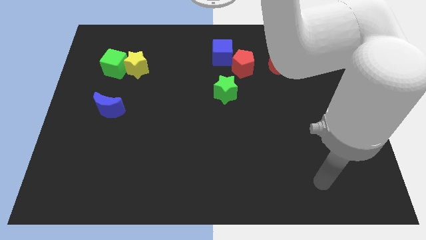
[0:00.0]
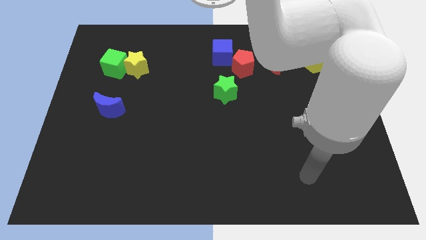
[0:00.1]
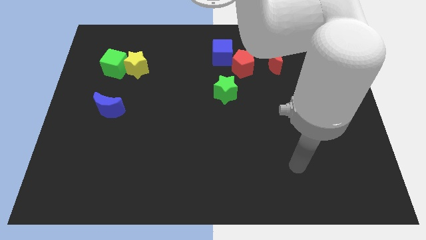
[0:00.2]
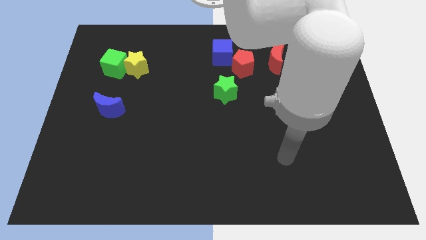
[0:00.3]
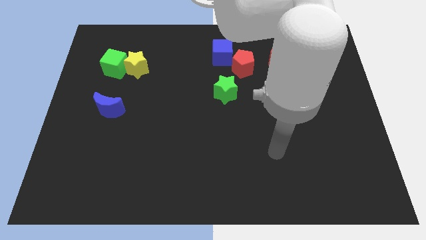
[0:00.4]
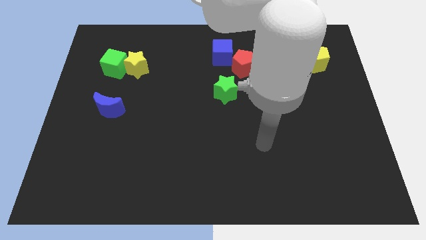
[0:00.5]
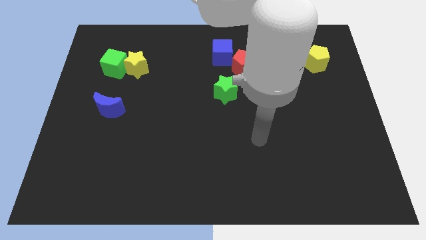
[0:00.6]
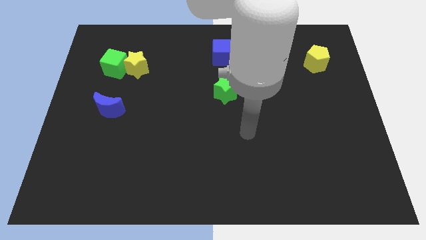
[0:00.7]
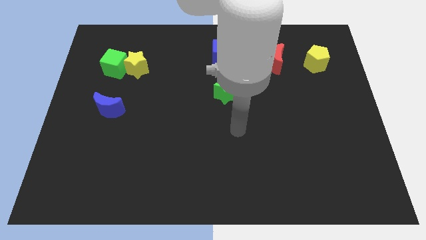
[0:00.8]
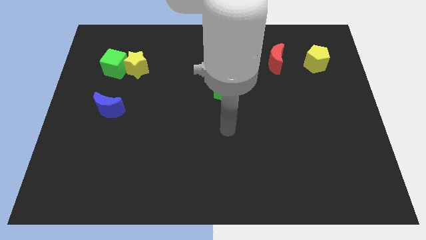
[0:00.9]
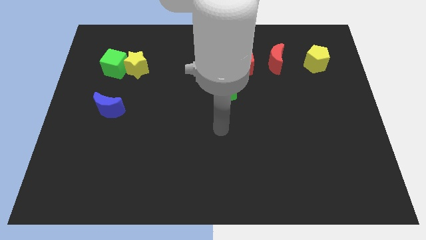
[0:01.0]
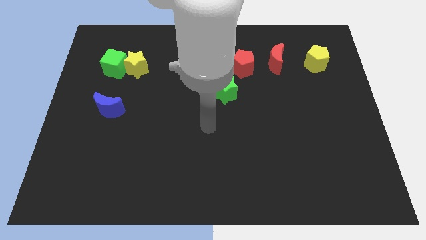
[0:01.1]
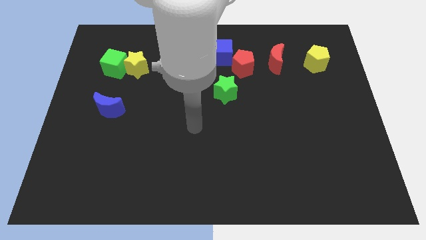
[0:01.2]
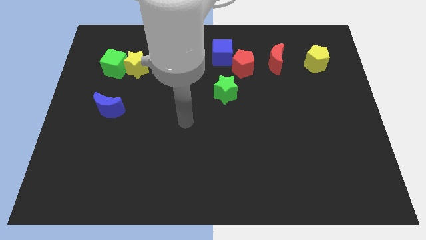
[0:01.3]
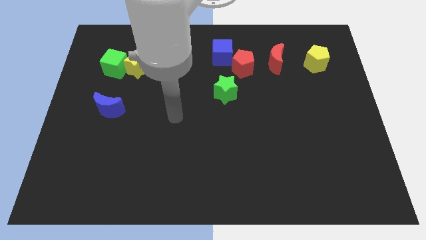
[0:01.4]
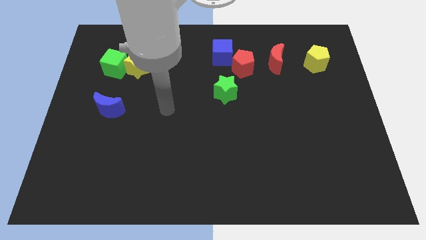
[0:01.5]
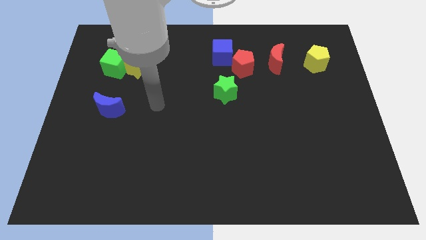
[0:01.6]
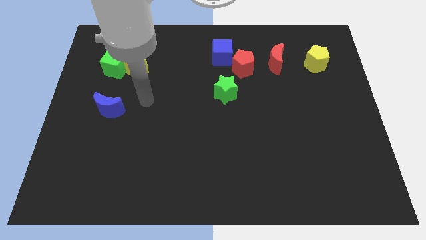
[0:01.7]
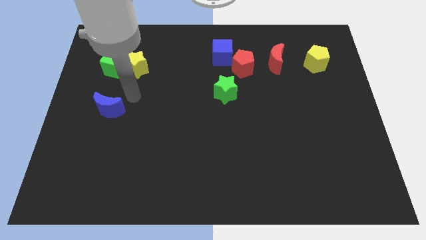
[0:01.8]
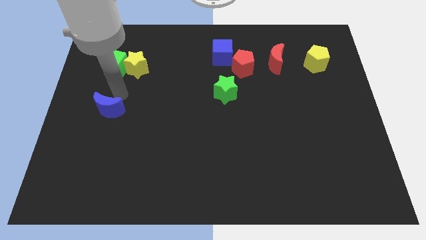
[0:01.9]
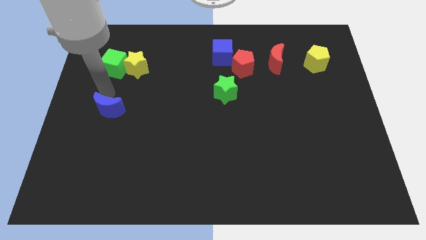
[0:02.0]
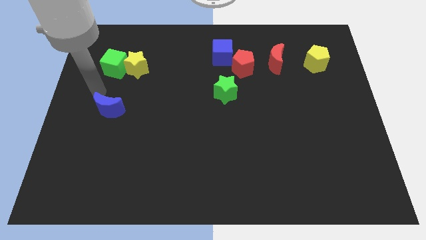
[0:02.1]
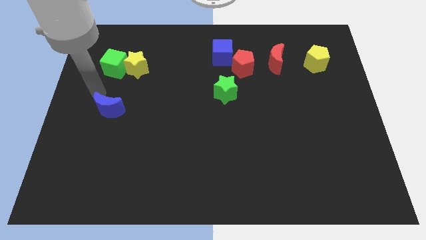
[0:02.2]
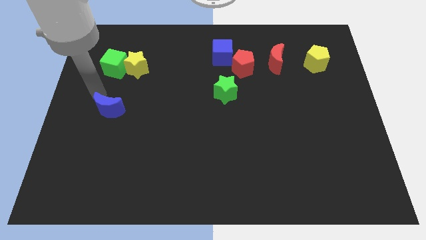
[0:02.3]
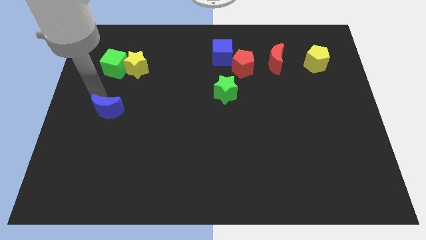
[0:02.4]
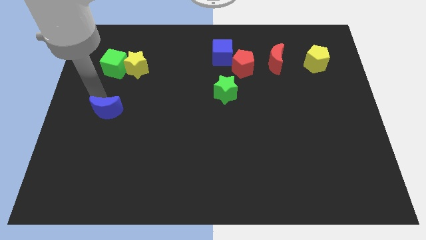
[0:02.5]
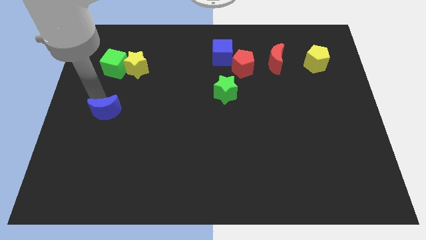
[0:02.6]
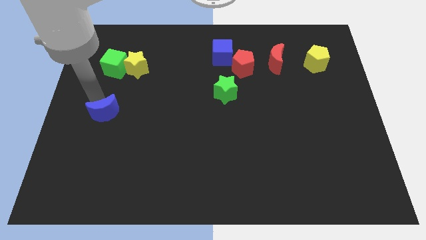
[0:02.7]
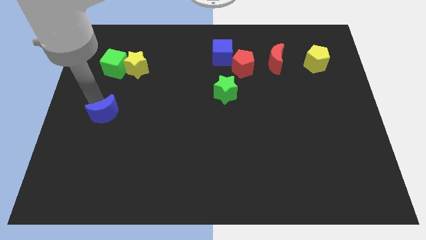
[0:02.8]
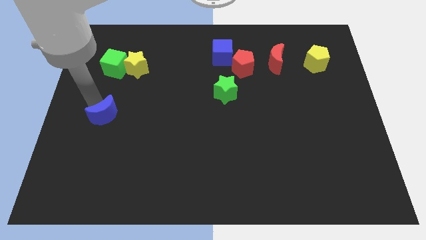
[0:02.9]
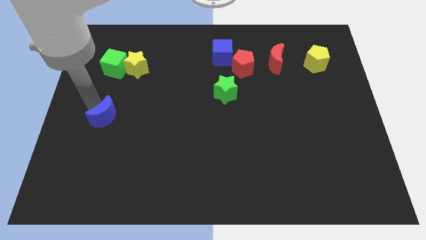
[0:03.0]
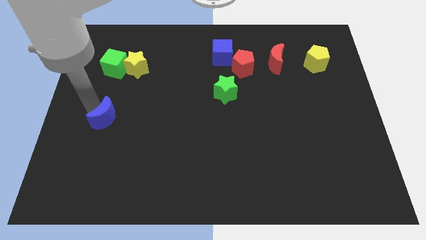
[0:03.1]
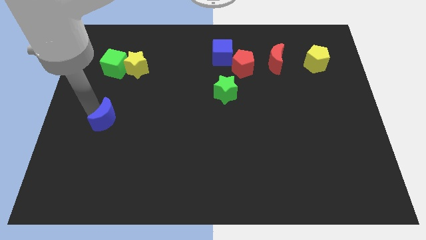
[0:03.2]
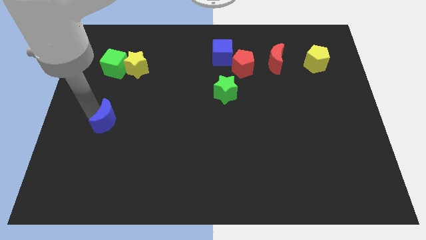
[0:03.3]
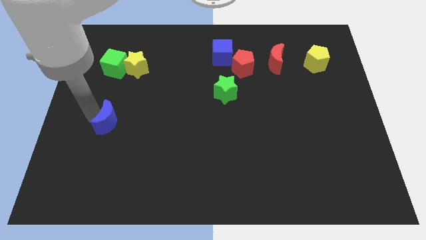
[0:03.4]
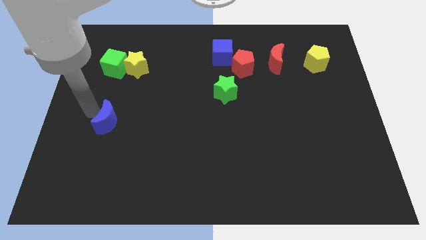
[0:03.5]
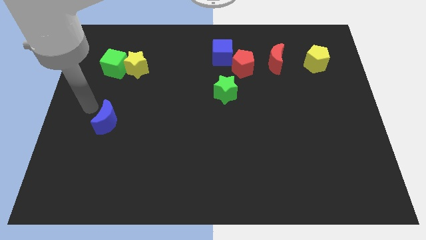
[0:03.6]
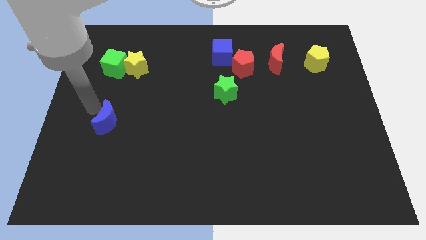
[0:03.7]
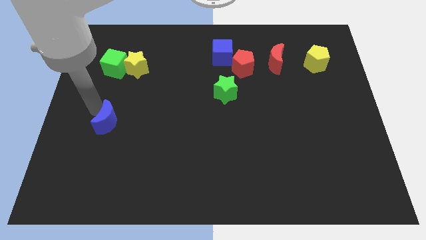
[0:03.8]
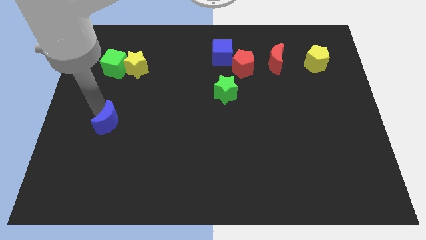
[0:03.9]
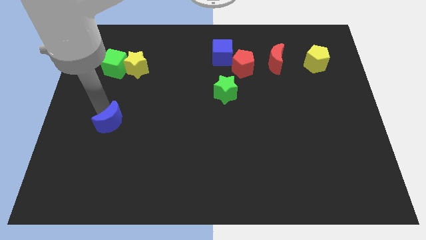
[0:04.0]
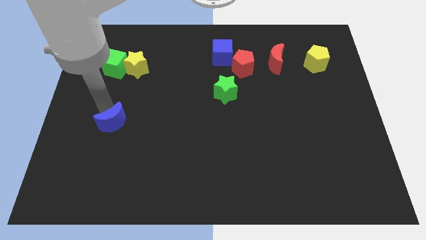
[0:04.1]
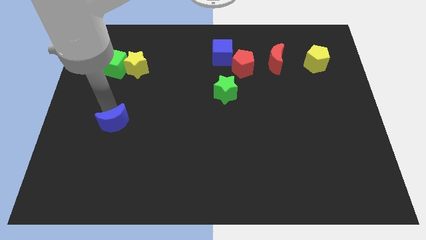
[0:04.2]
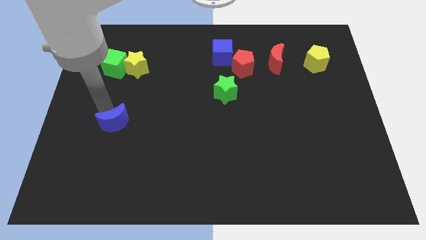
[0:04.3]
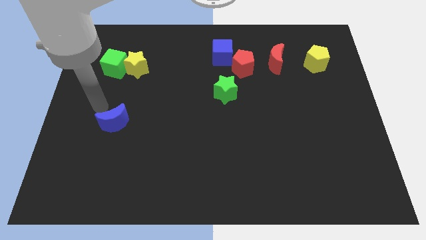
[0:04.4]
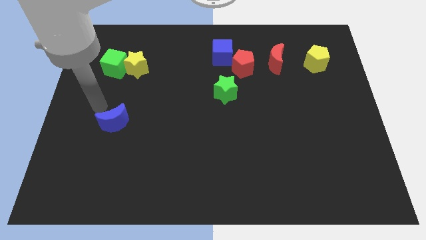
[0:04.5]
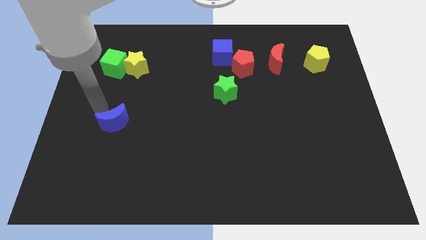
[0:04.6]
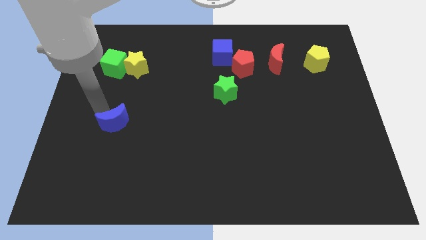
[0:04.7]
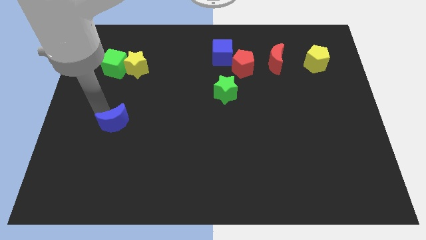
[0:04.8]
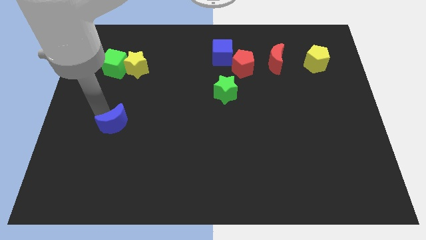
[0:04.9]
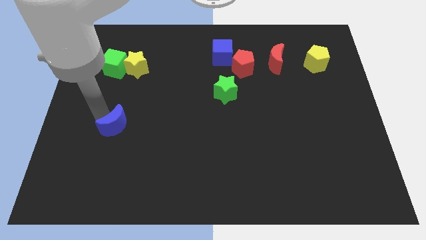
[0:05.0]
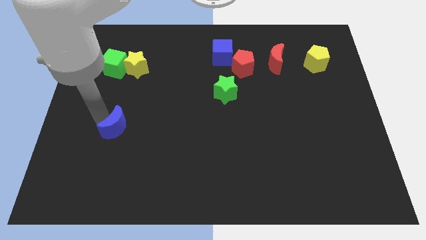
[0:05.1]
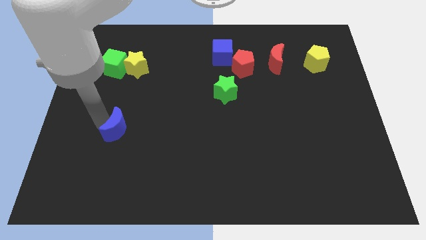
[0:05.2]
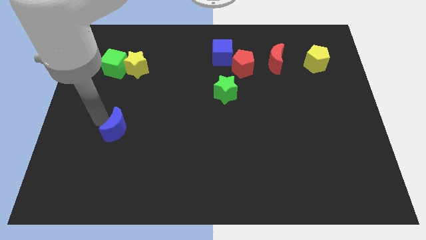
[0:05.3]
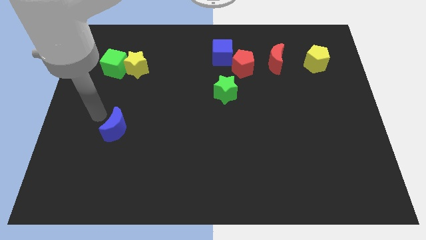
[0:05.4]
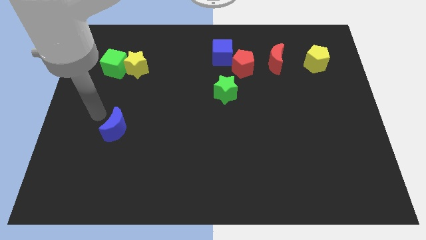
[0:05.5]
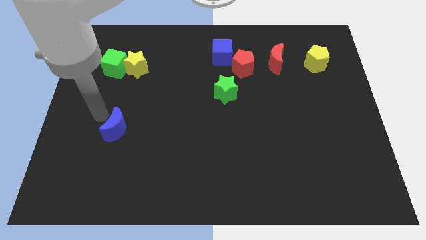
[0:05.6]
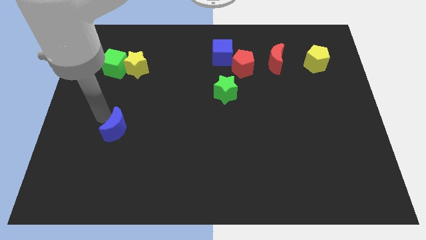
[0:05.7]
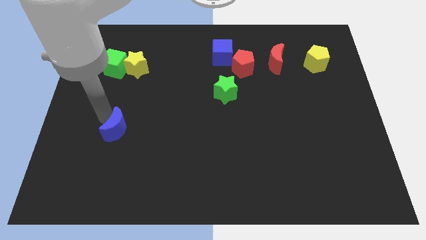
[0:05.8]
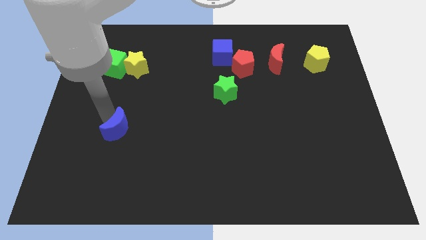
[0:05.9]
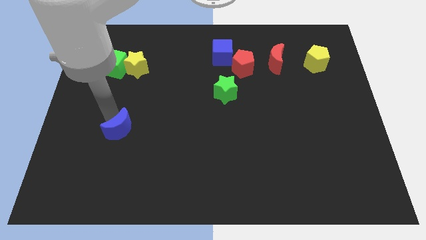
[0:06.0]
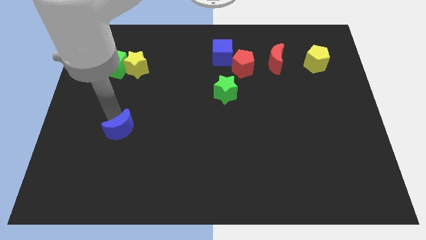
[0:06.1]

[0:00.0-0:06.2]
move the blue moon a bit diagonally down and right

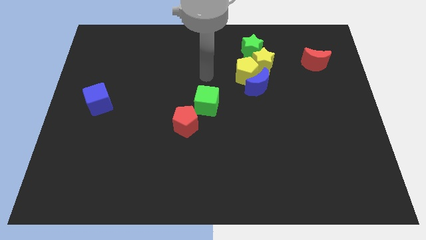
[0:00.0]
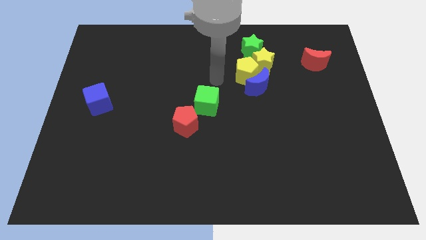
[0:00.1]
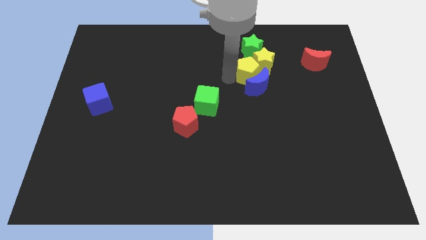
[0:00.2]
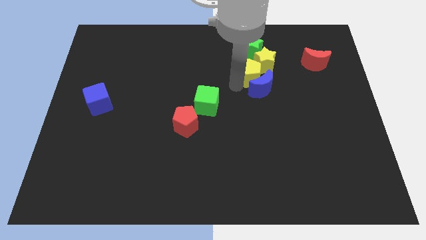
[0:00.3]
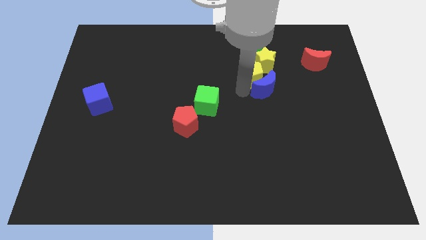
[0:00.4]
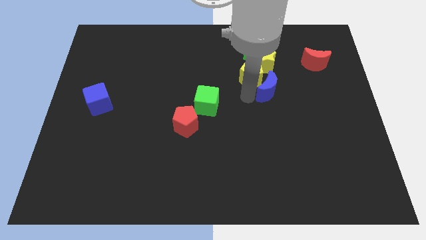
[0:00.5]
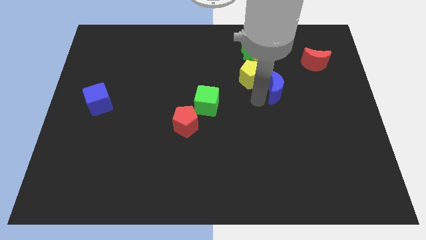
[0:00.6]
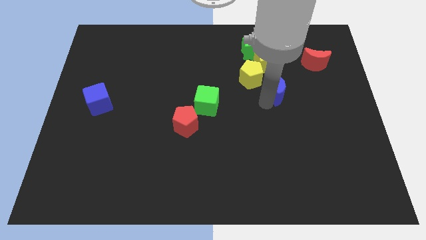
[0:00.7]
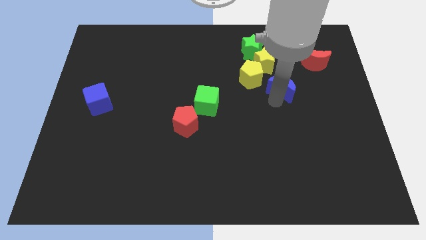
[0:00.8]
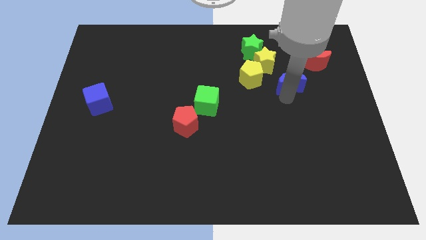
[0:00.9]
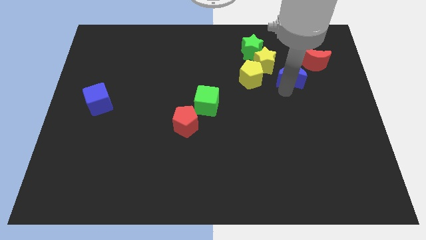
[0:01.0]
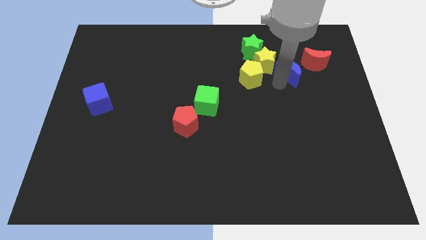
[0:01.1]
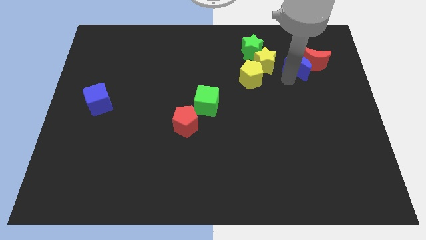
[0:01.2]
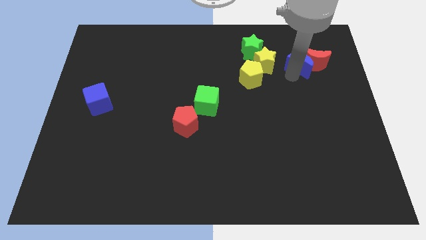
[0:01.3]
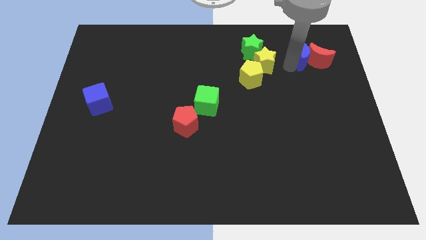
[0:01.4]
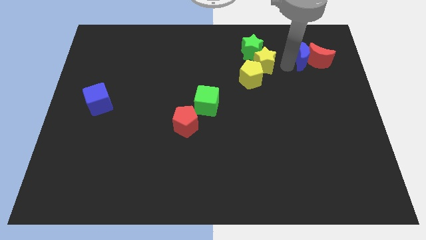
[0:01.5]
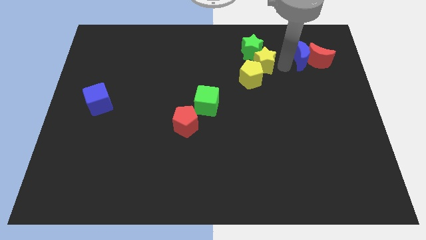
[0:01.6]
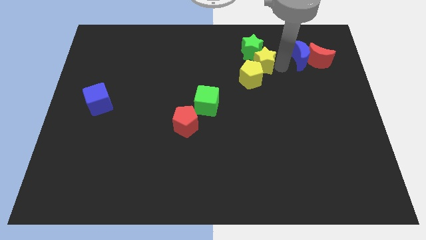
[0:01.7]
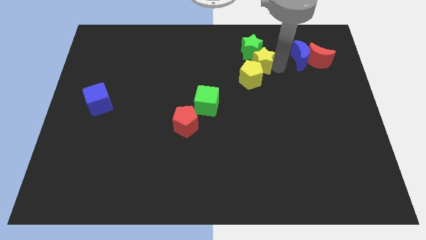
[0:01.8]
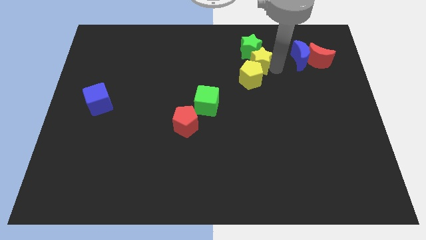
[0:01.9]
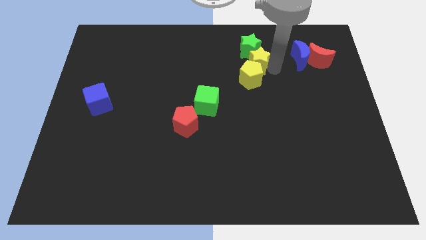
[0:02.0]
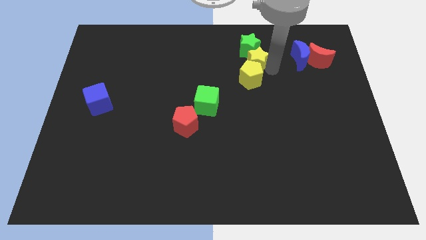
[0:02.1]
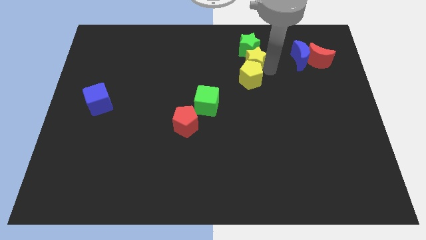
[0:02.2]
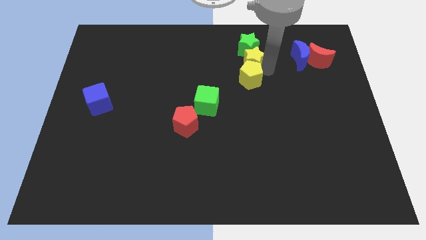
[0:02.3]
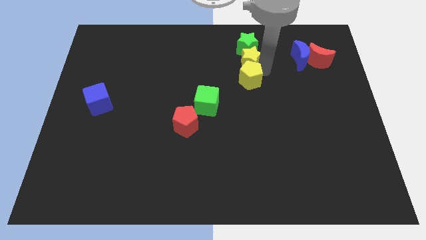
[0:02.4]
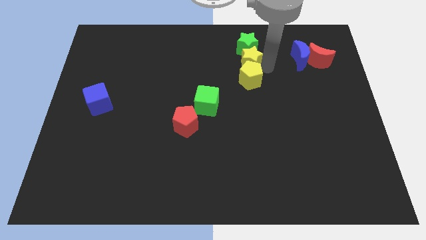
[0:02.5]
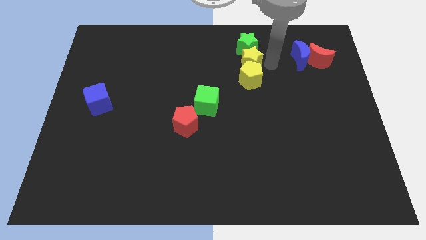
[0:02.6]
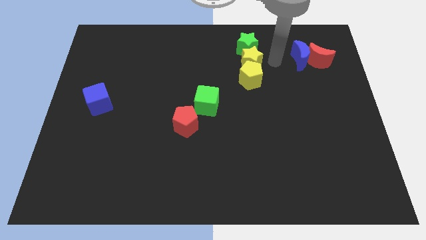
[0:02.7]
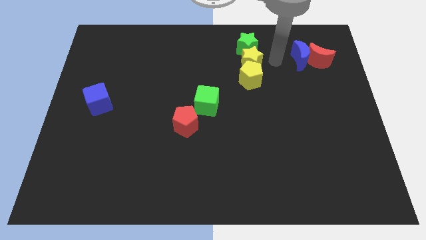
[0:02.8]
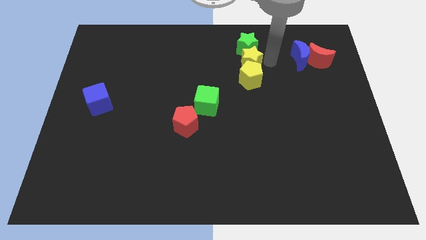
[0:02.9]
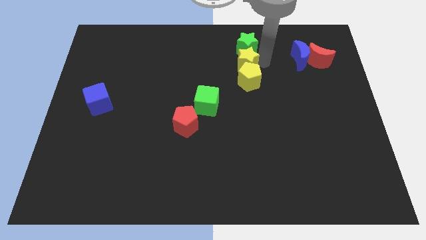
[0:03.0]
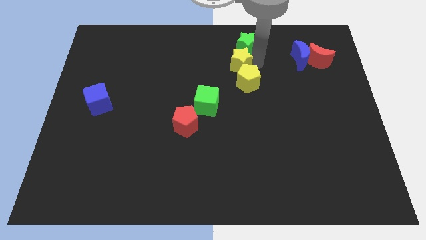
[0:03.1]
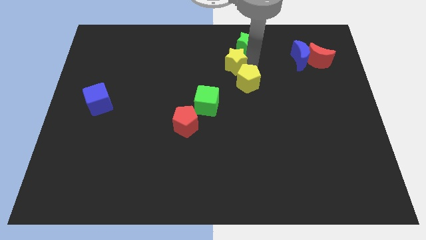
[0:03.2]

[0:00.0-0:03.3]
slightly push the yellow star left
